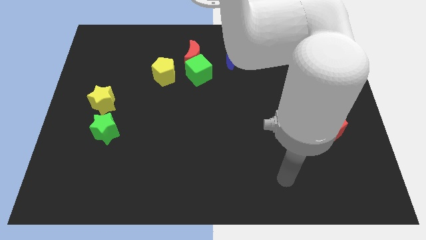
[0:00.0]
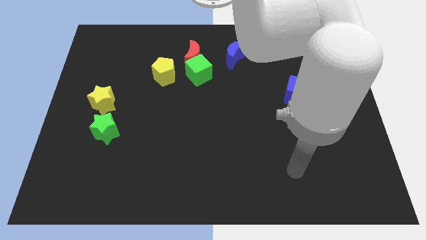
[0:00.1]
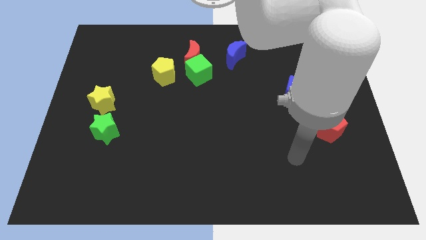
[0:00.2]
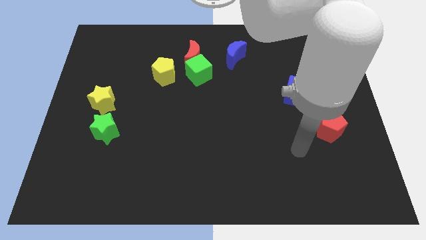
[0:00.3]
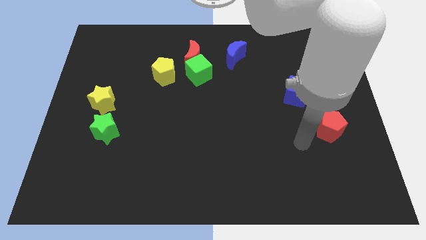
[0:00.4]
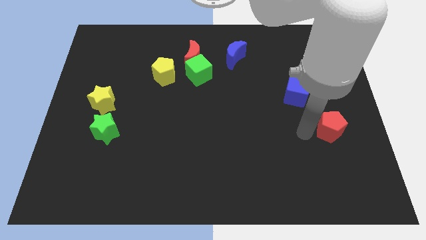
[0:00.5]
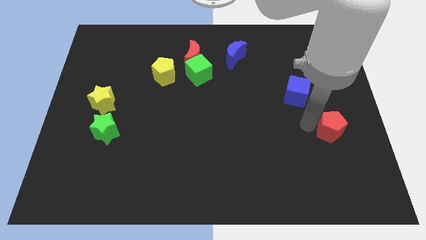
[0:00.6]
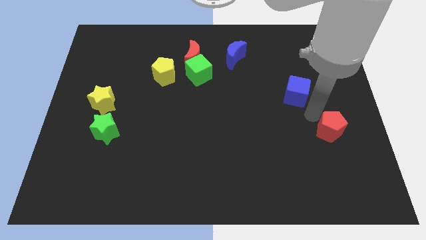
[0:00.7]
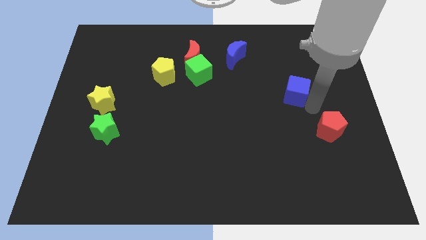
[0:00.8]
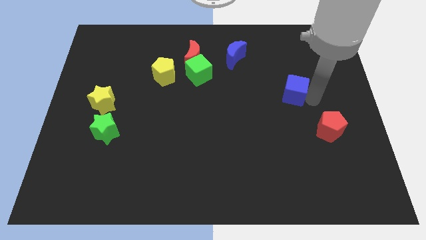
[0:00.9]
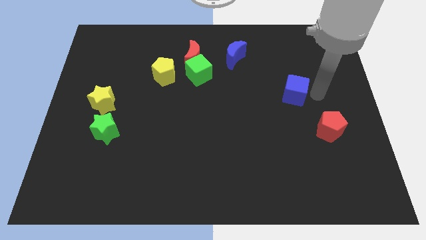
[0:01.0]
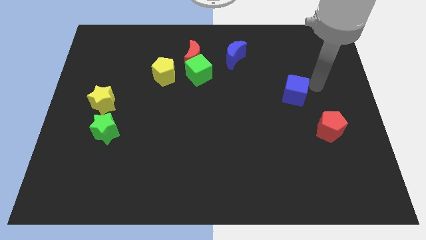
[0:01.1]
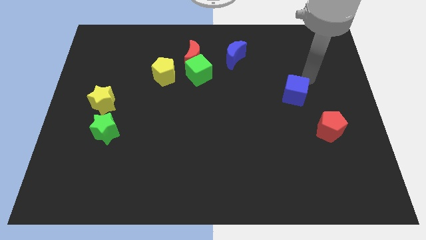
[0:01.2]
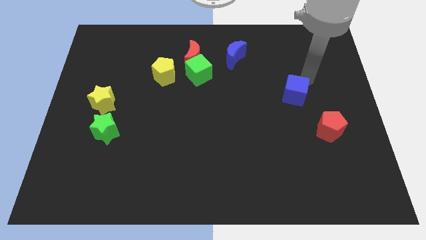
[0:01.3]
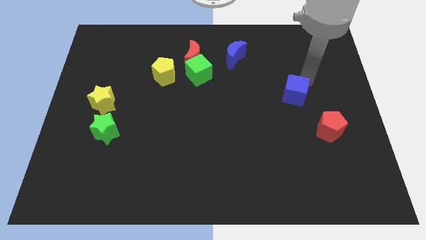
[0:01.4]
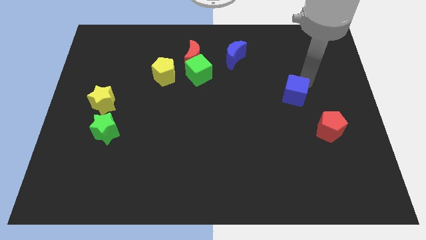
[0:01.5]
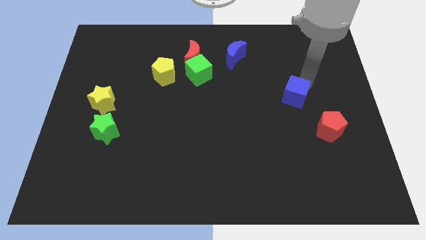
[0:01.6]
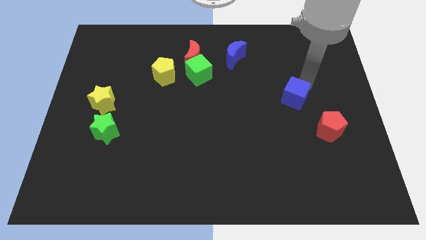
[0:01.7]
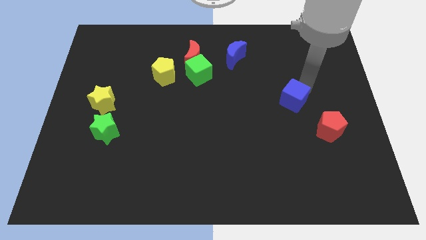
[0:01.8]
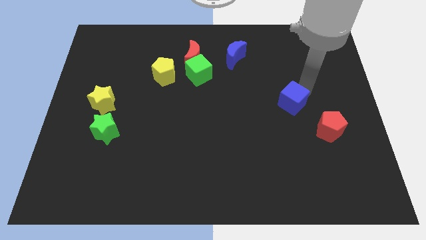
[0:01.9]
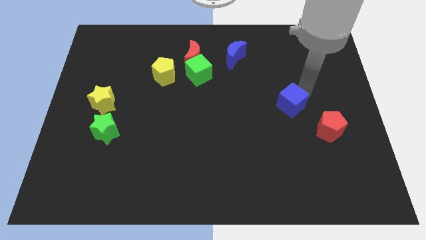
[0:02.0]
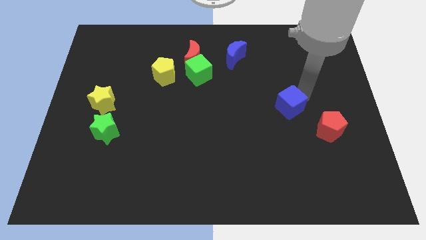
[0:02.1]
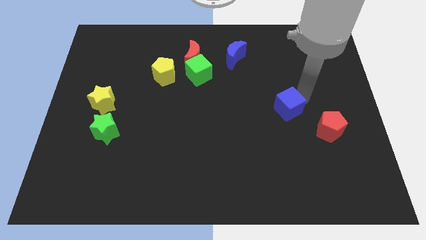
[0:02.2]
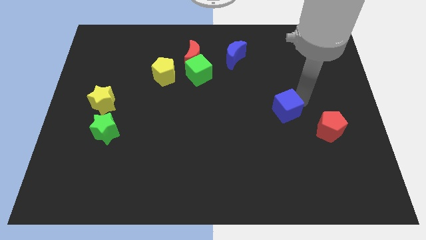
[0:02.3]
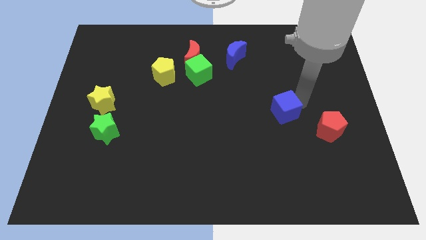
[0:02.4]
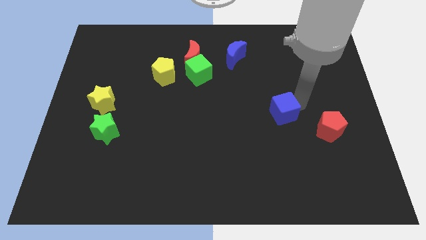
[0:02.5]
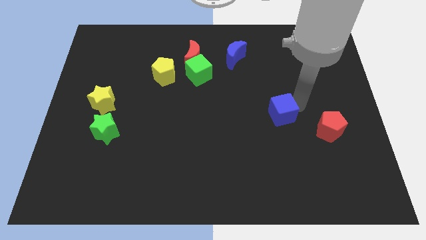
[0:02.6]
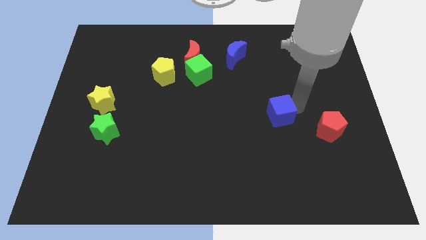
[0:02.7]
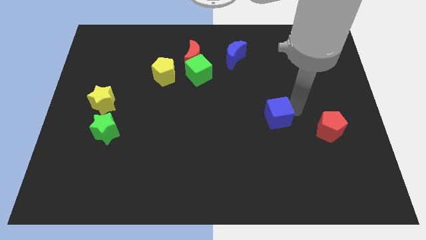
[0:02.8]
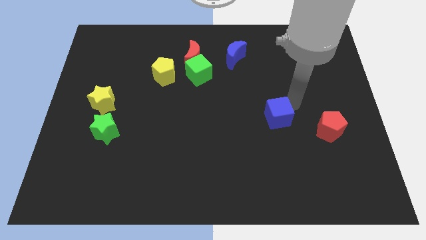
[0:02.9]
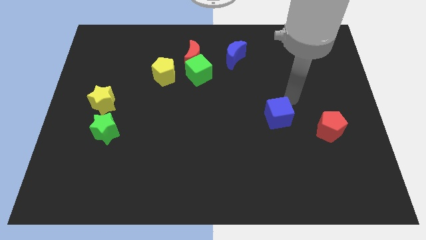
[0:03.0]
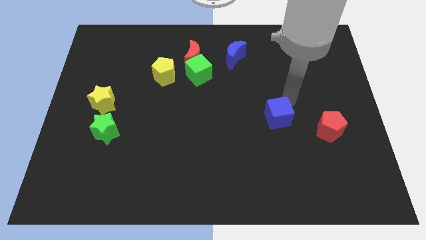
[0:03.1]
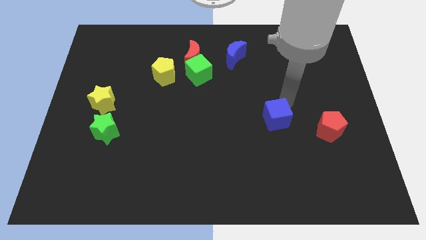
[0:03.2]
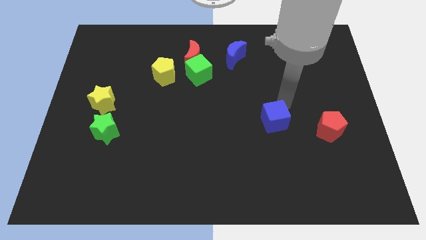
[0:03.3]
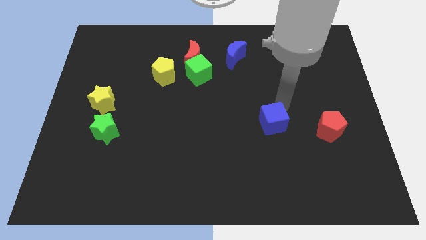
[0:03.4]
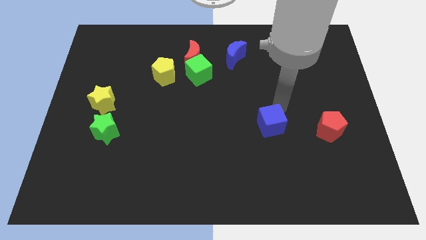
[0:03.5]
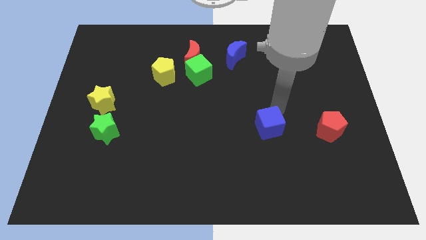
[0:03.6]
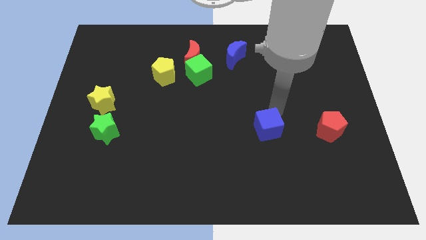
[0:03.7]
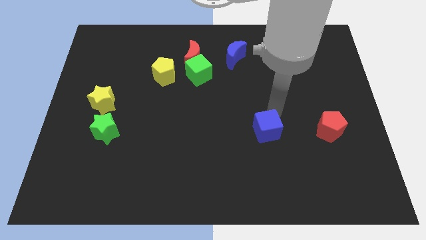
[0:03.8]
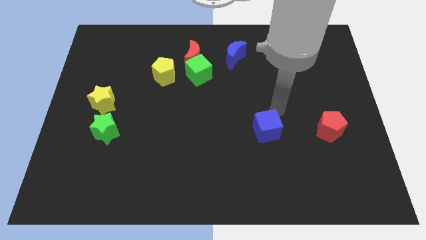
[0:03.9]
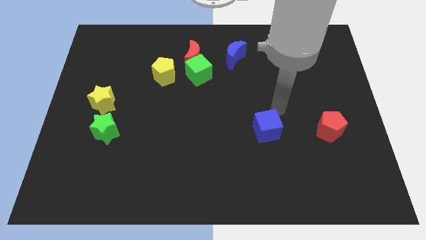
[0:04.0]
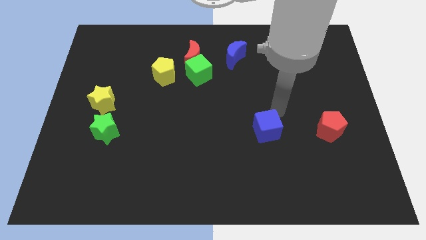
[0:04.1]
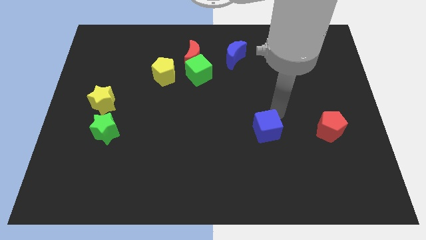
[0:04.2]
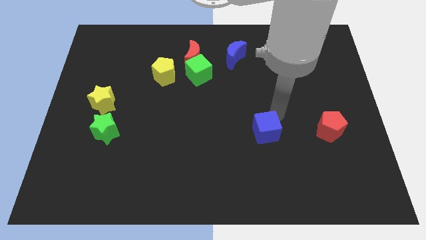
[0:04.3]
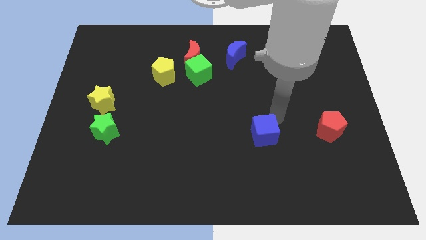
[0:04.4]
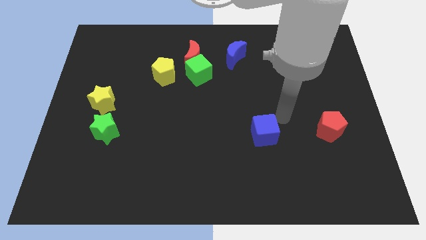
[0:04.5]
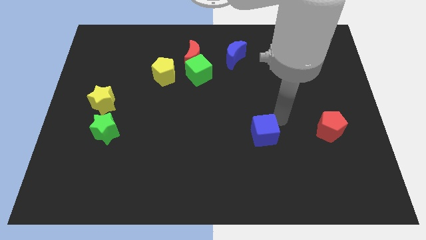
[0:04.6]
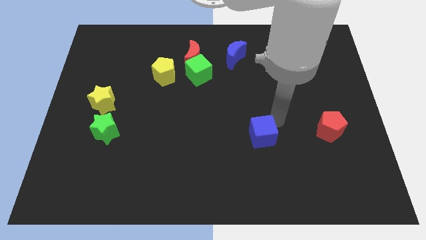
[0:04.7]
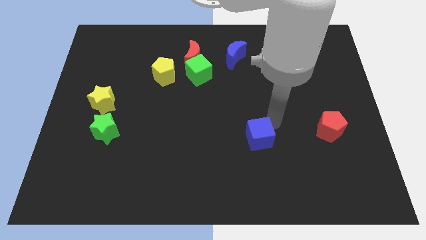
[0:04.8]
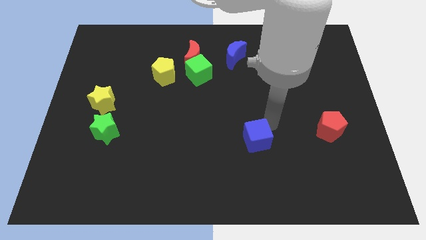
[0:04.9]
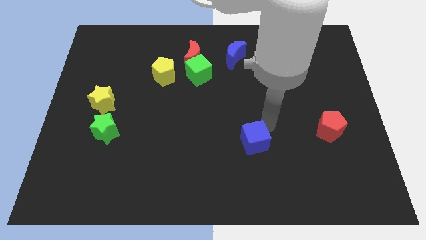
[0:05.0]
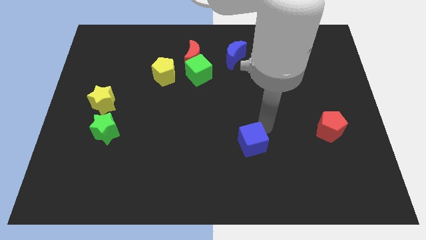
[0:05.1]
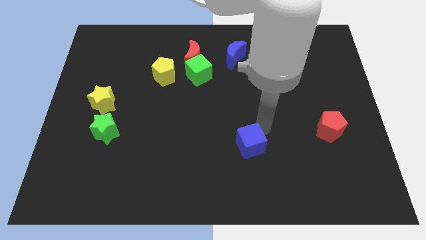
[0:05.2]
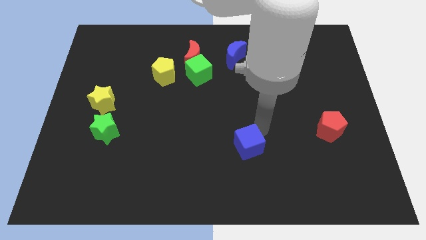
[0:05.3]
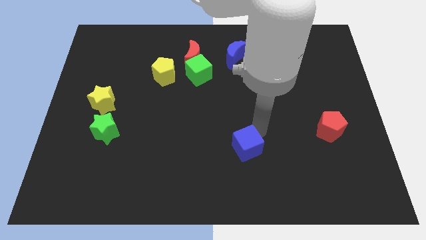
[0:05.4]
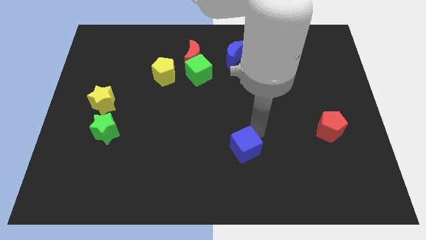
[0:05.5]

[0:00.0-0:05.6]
push the blue cube down and to the left

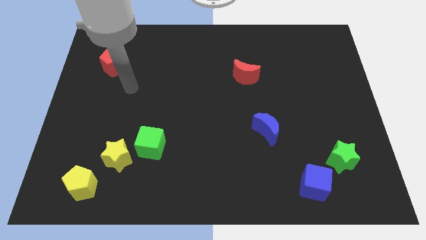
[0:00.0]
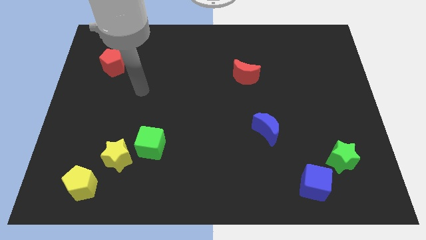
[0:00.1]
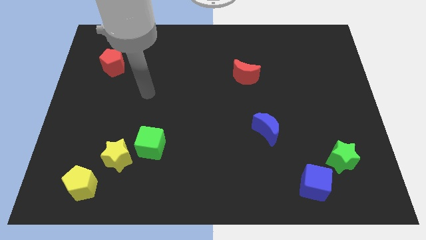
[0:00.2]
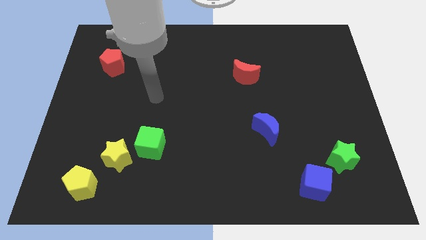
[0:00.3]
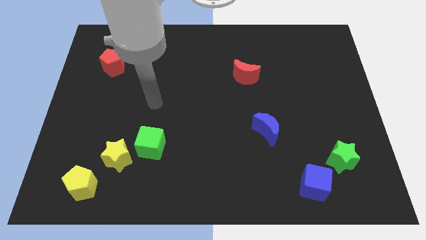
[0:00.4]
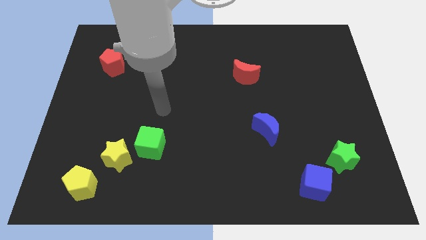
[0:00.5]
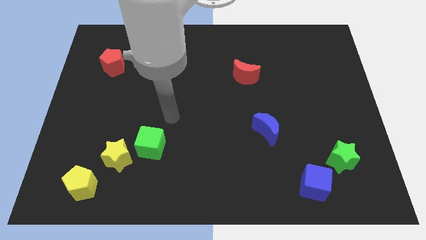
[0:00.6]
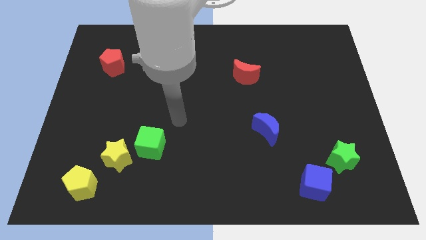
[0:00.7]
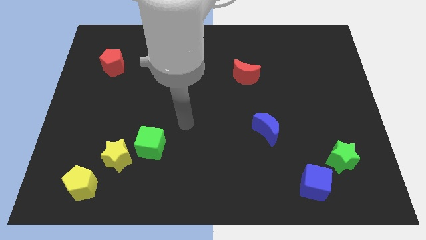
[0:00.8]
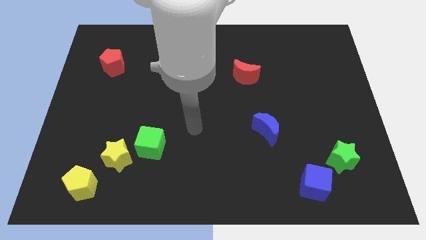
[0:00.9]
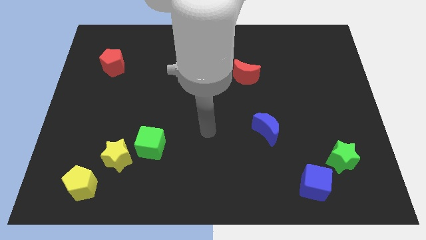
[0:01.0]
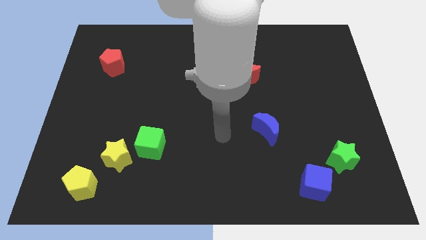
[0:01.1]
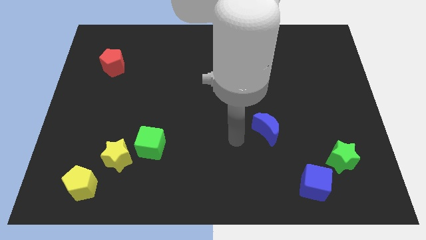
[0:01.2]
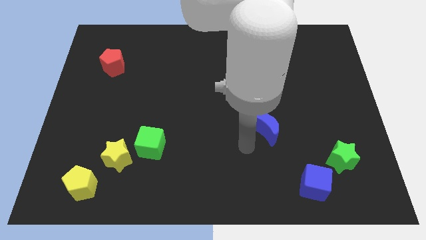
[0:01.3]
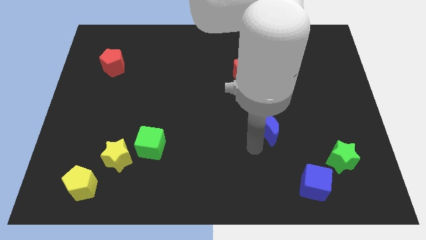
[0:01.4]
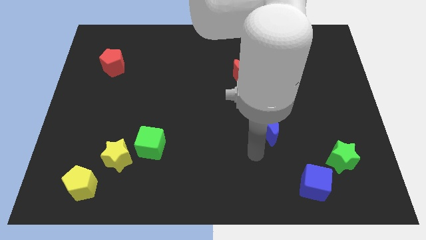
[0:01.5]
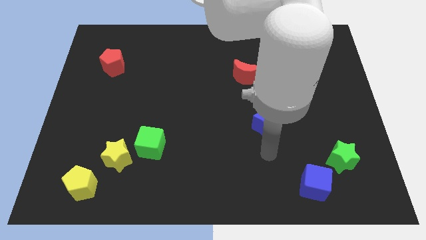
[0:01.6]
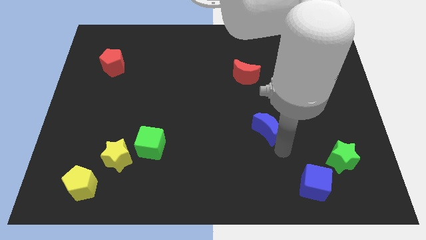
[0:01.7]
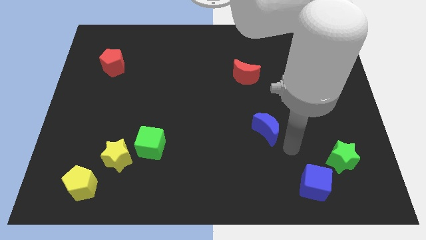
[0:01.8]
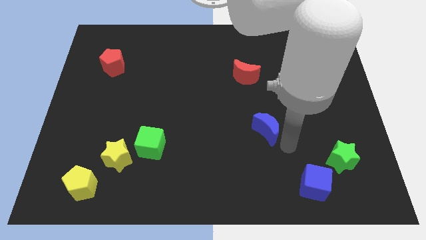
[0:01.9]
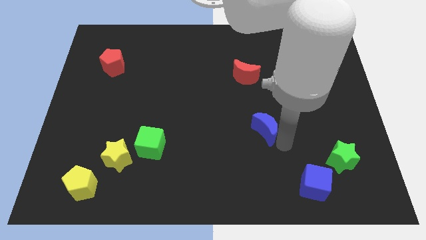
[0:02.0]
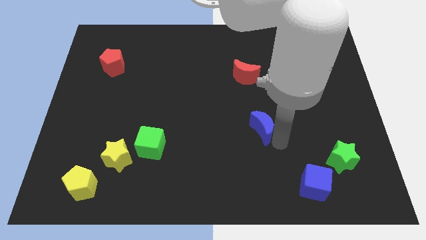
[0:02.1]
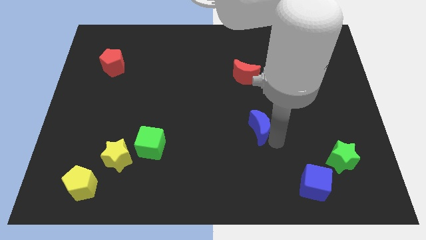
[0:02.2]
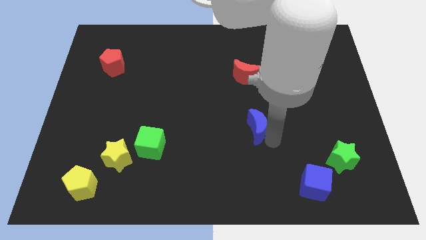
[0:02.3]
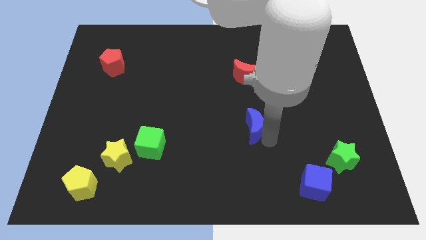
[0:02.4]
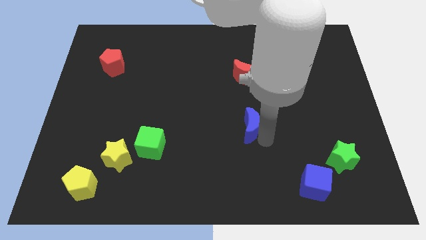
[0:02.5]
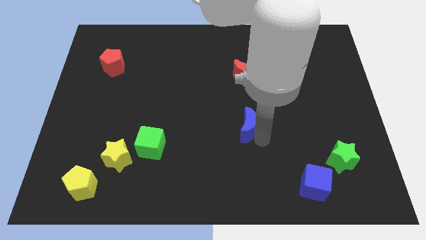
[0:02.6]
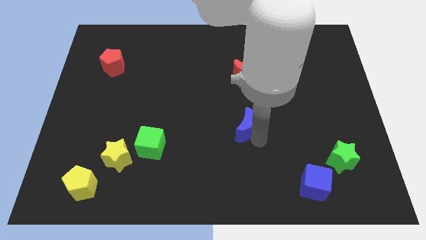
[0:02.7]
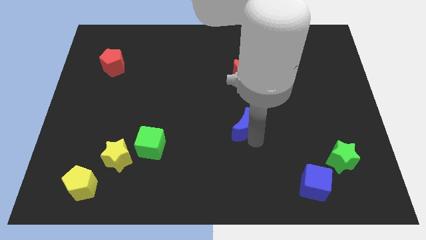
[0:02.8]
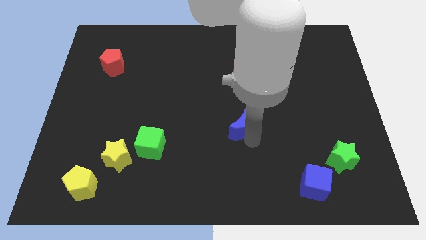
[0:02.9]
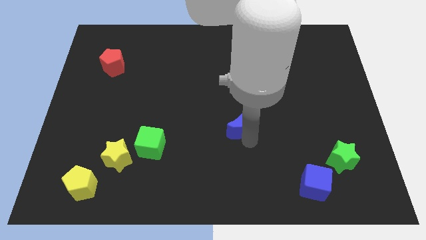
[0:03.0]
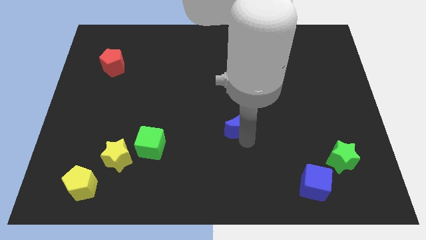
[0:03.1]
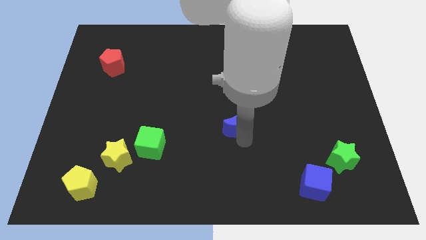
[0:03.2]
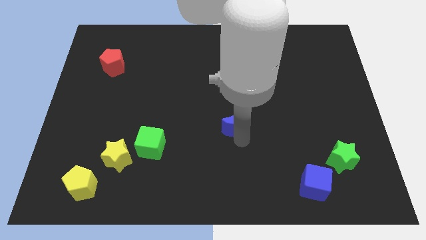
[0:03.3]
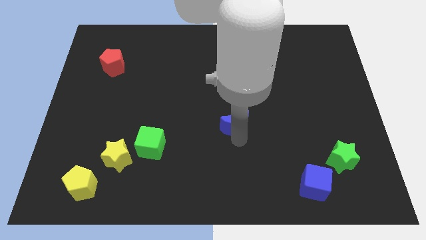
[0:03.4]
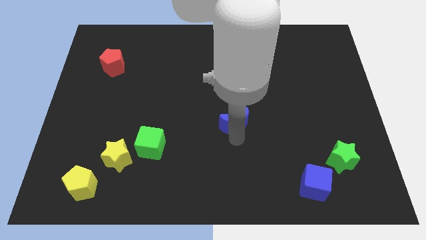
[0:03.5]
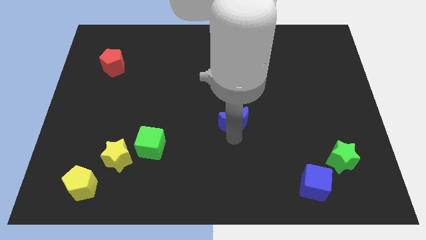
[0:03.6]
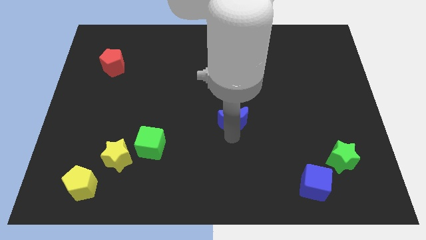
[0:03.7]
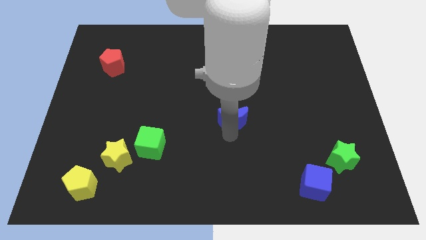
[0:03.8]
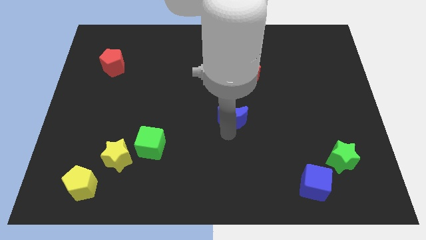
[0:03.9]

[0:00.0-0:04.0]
push the blue moon a bit up and left diagonally
